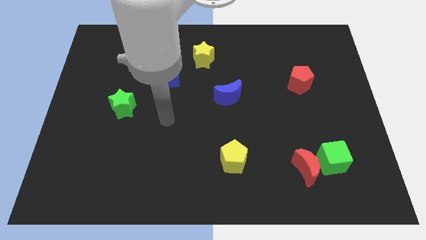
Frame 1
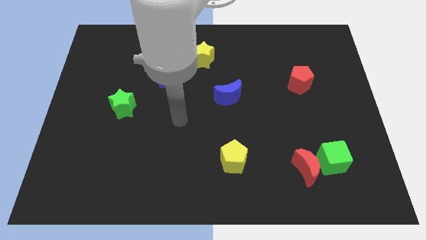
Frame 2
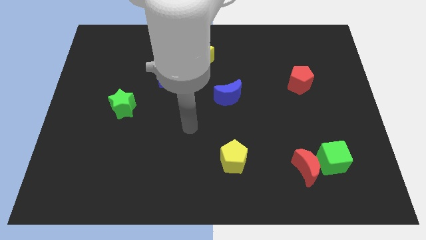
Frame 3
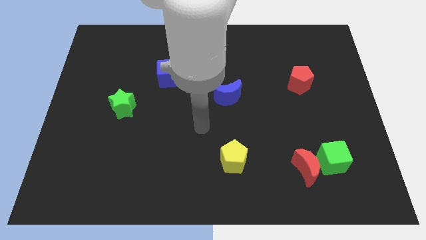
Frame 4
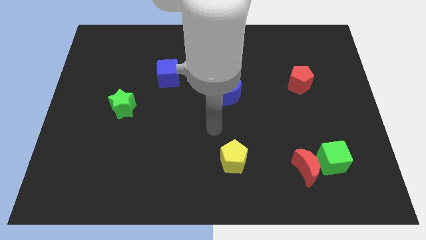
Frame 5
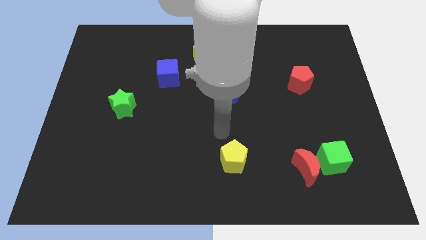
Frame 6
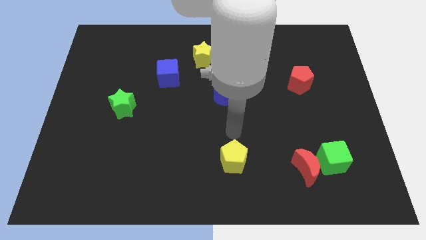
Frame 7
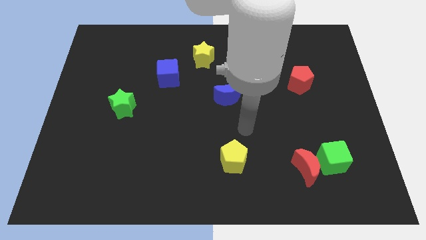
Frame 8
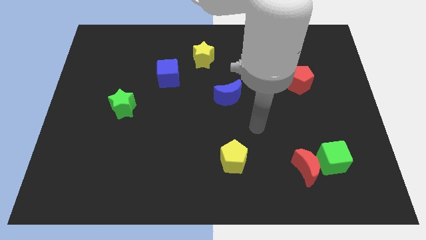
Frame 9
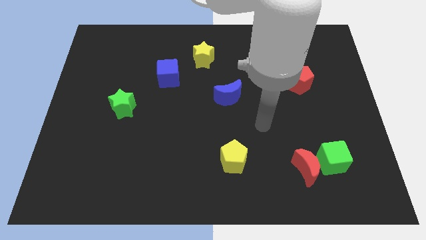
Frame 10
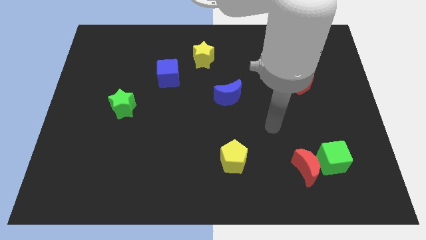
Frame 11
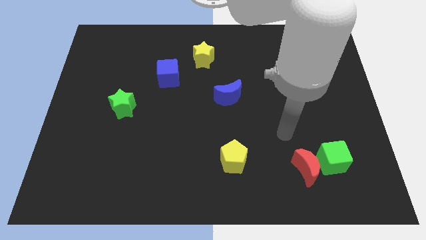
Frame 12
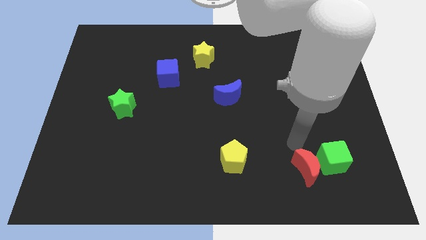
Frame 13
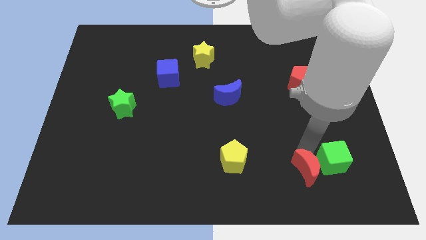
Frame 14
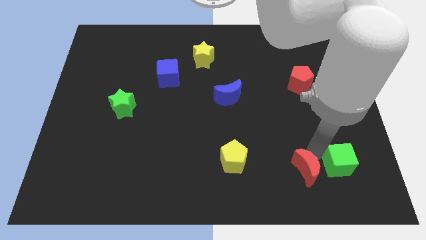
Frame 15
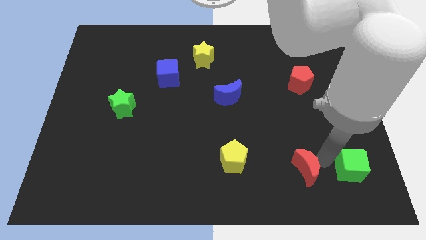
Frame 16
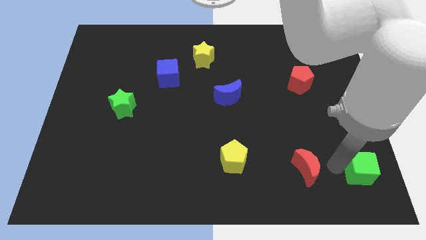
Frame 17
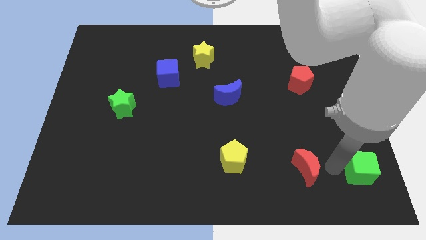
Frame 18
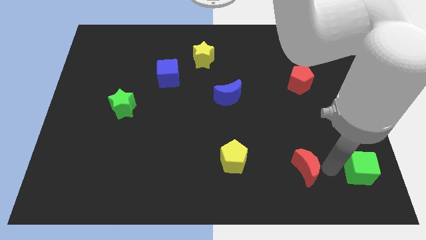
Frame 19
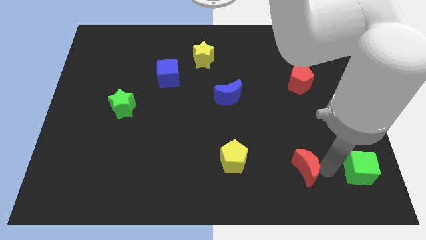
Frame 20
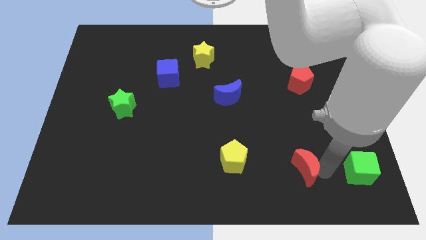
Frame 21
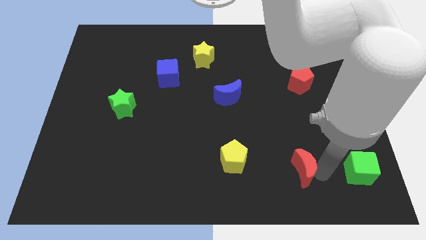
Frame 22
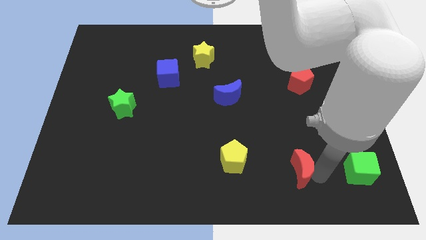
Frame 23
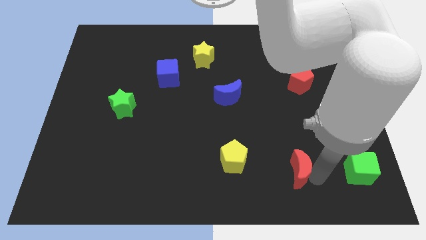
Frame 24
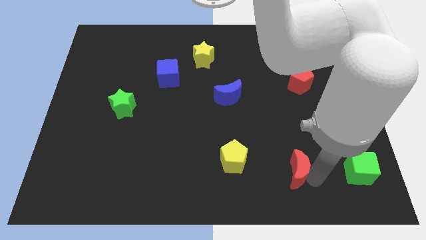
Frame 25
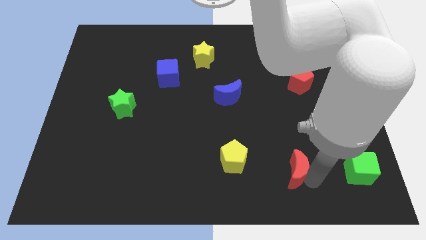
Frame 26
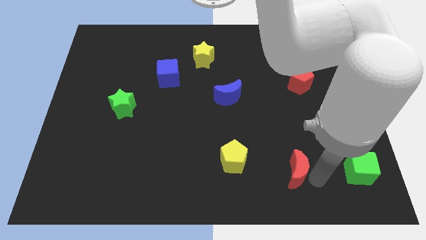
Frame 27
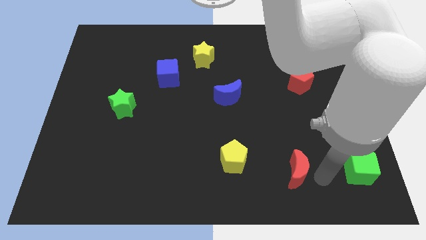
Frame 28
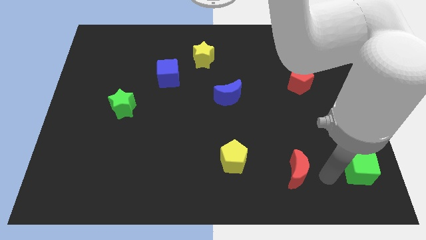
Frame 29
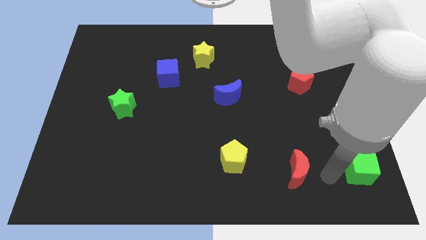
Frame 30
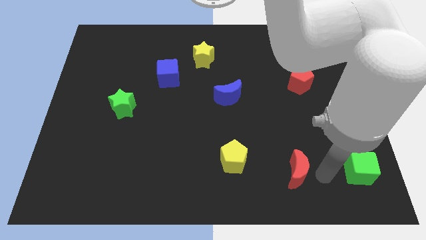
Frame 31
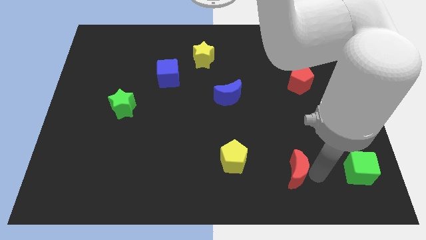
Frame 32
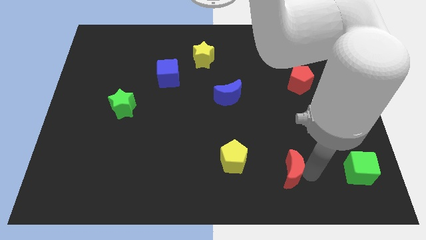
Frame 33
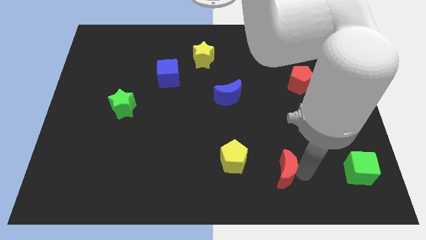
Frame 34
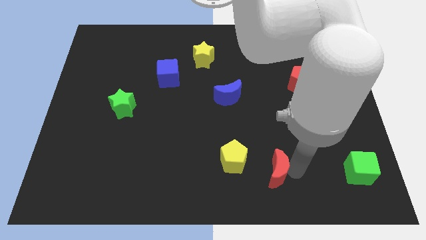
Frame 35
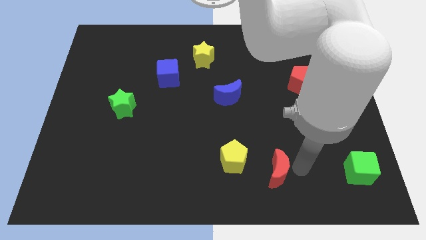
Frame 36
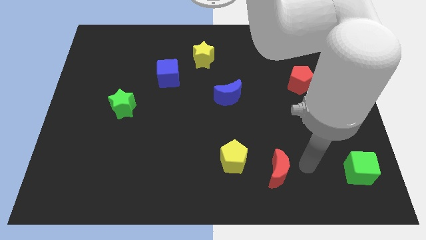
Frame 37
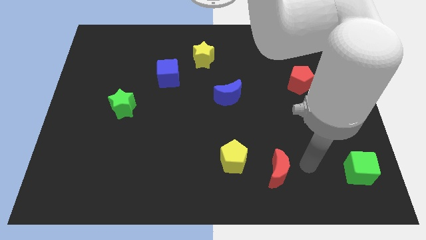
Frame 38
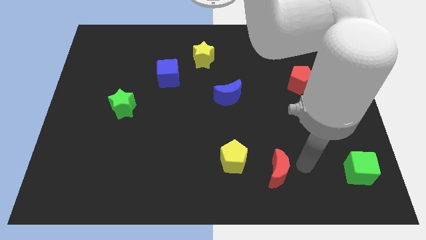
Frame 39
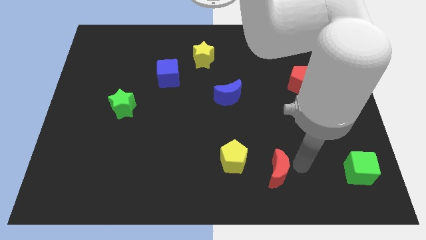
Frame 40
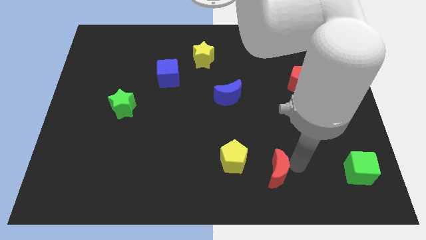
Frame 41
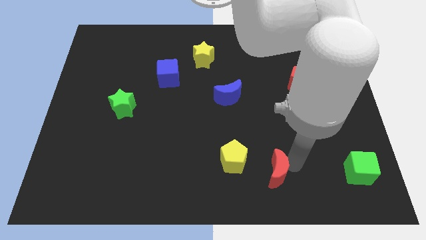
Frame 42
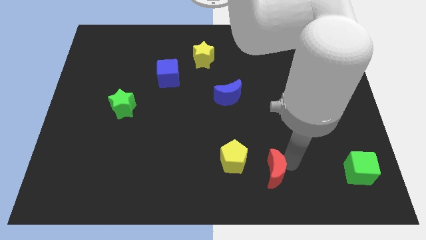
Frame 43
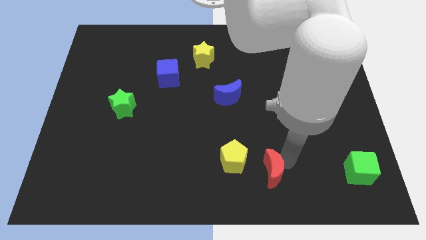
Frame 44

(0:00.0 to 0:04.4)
push the red moon left a bit

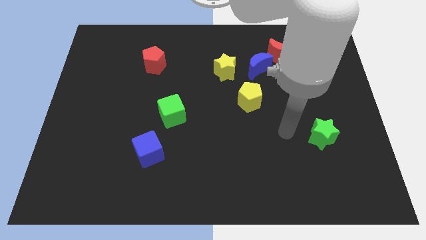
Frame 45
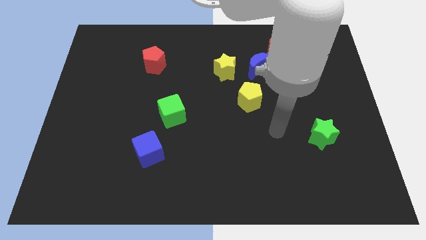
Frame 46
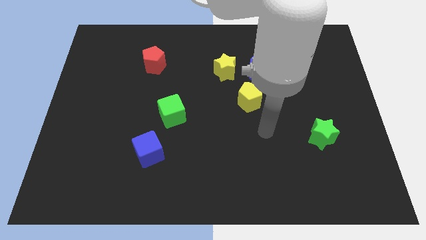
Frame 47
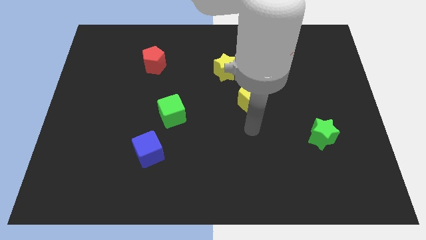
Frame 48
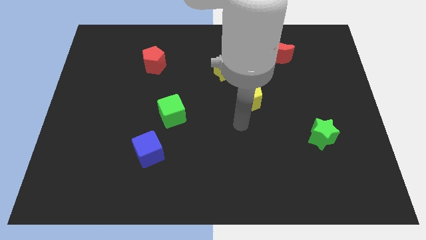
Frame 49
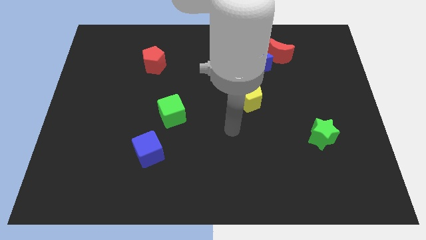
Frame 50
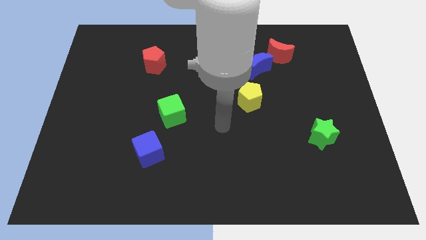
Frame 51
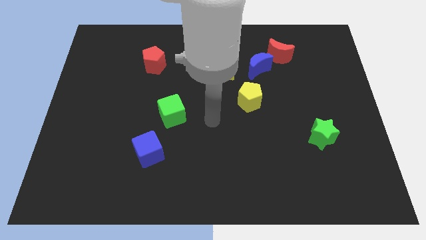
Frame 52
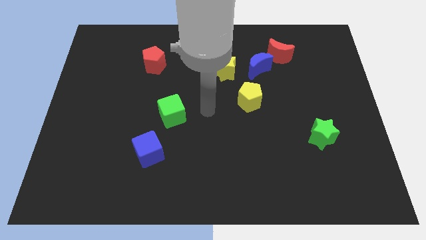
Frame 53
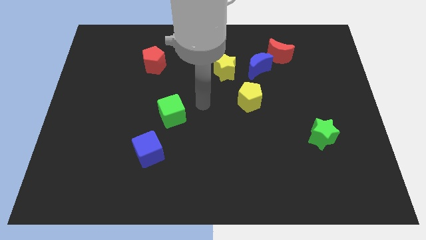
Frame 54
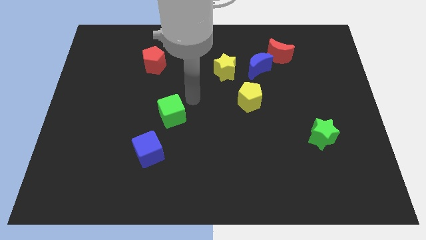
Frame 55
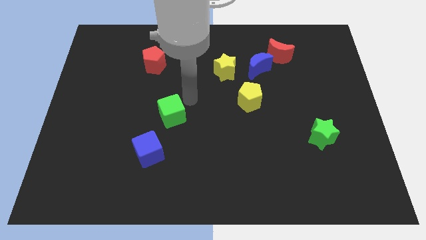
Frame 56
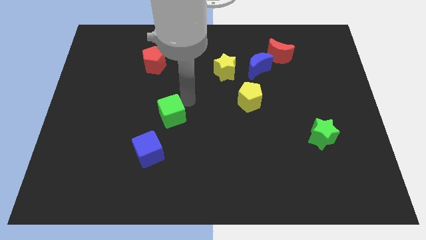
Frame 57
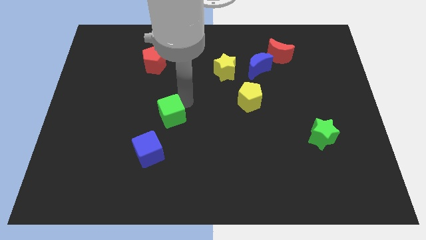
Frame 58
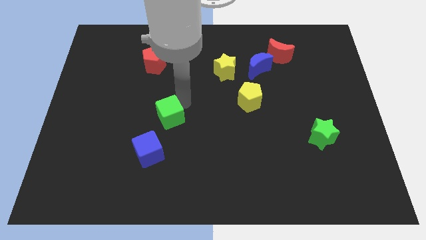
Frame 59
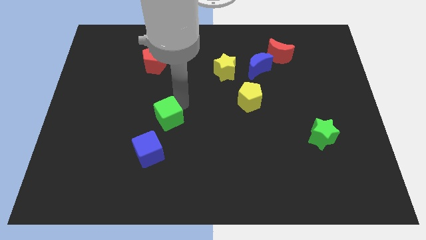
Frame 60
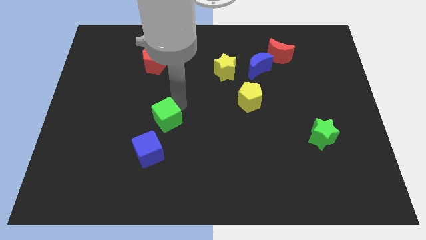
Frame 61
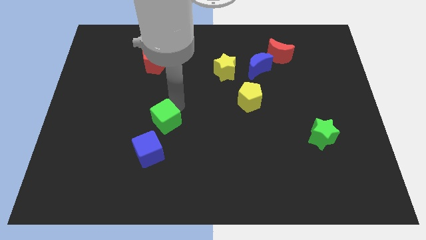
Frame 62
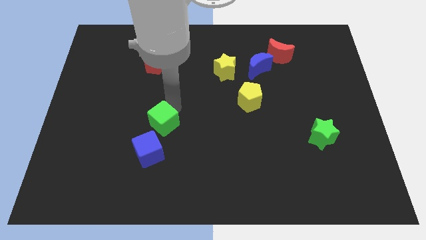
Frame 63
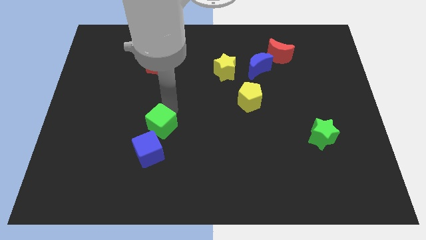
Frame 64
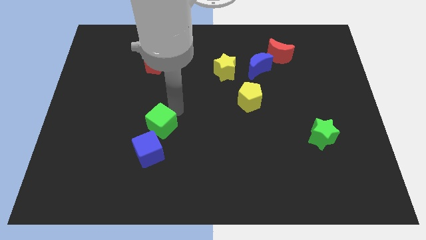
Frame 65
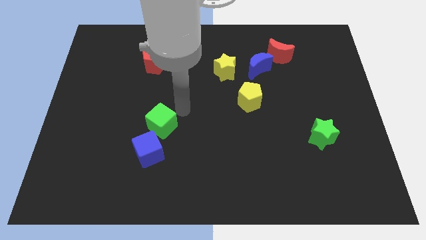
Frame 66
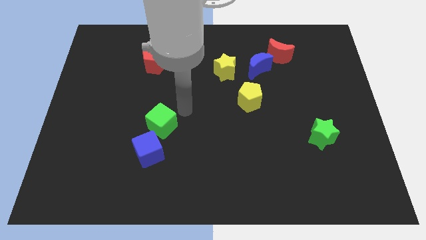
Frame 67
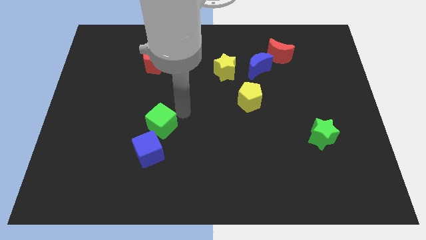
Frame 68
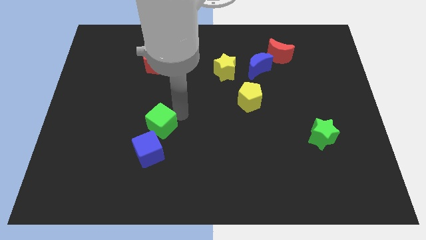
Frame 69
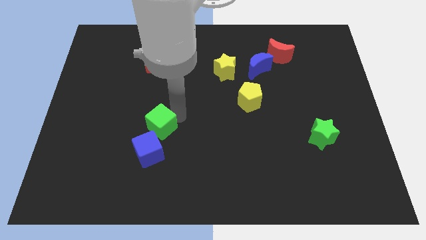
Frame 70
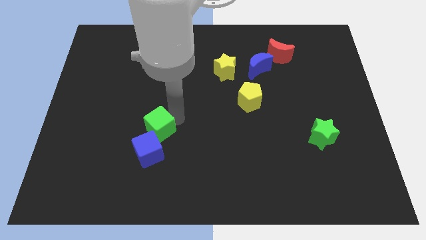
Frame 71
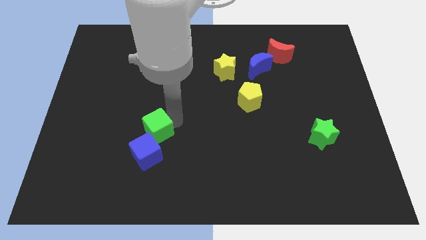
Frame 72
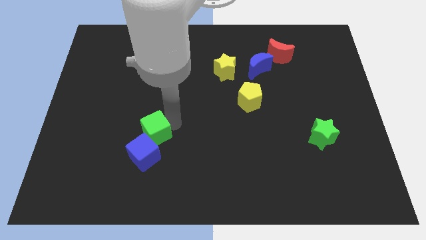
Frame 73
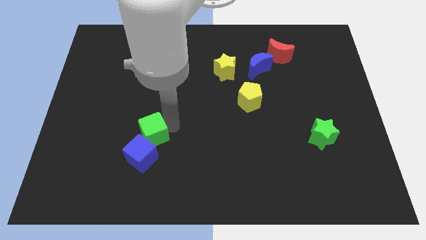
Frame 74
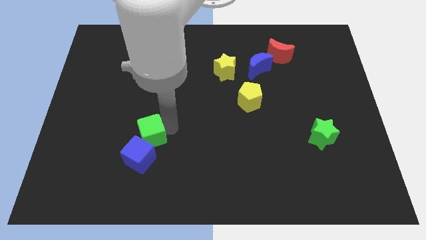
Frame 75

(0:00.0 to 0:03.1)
push the green cube down and then left a little

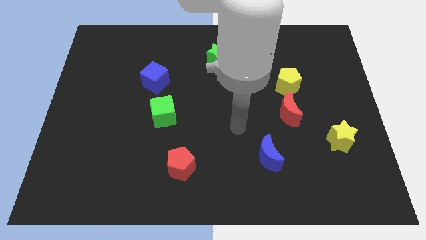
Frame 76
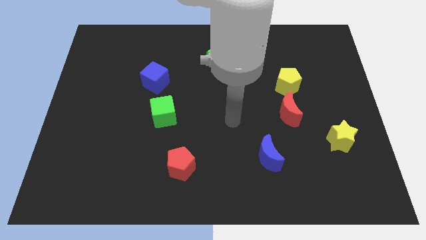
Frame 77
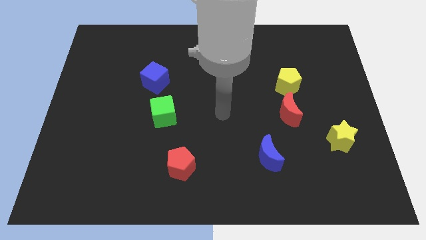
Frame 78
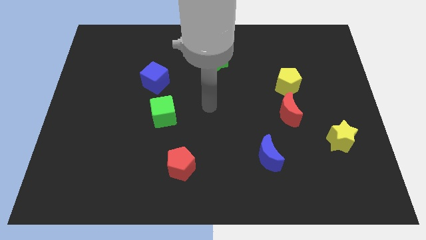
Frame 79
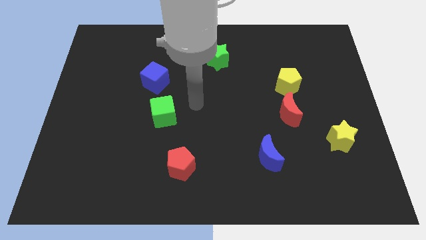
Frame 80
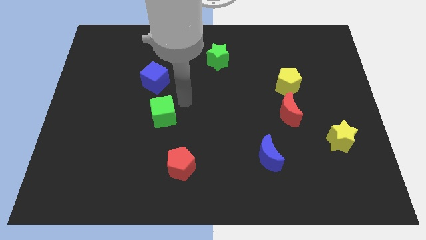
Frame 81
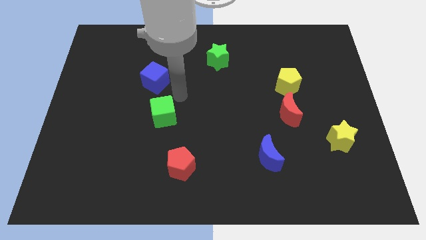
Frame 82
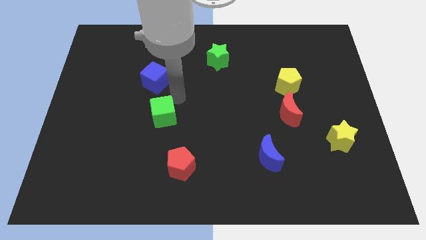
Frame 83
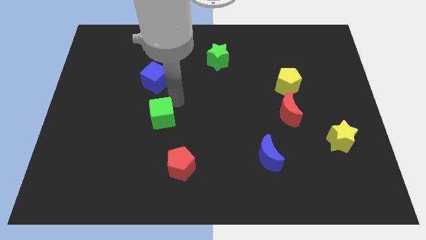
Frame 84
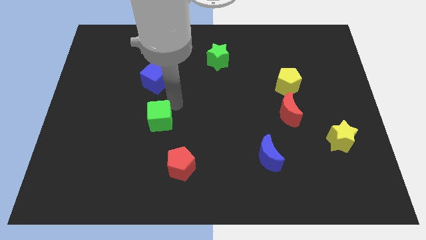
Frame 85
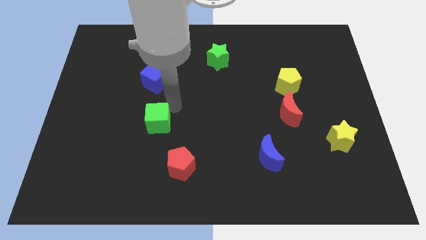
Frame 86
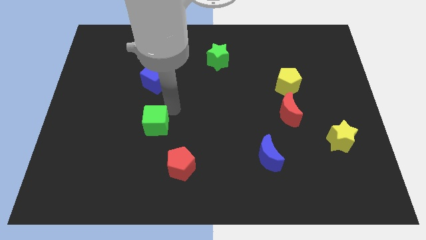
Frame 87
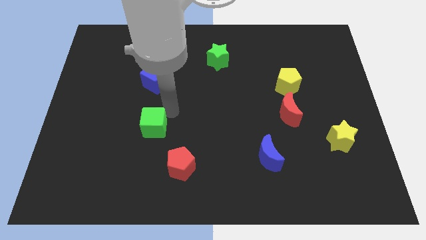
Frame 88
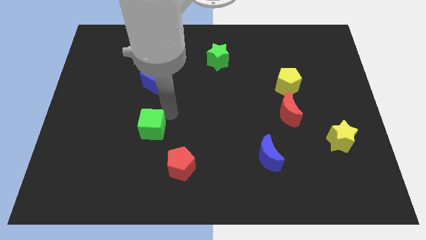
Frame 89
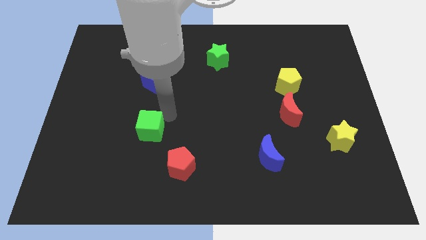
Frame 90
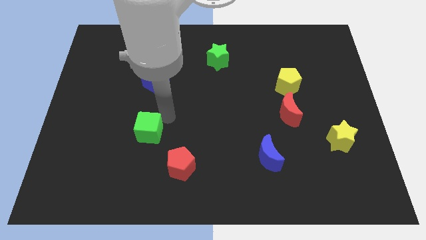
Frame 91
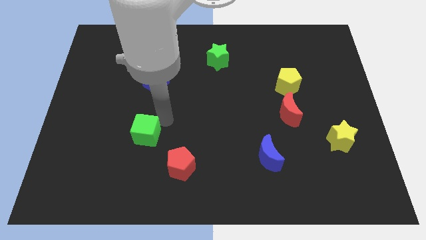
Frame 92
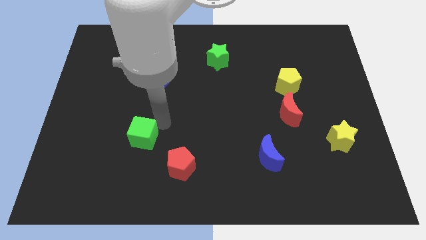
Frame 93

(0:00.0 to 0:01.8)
push the green cube somewhat downwards and to the left diagonally
